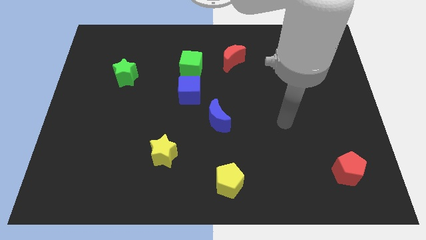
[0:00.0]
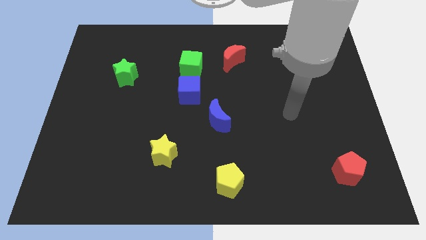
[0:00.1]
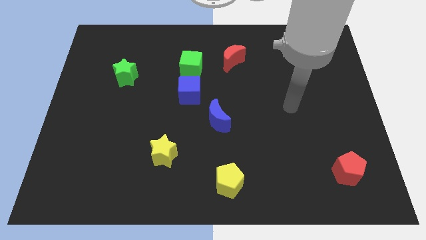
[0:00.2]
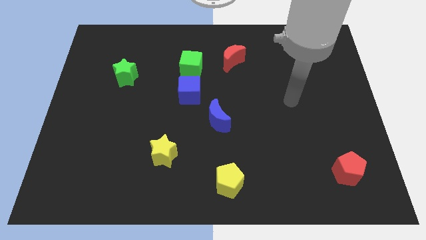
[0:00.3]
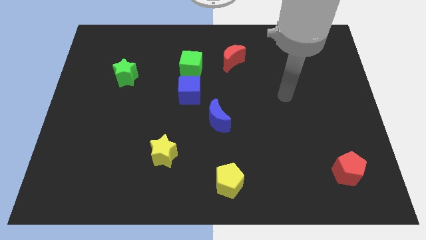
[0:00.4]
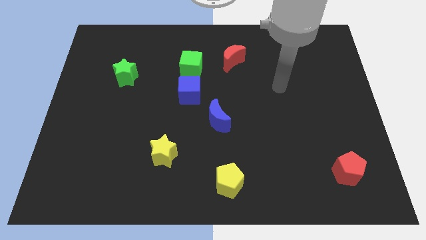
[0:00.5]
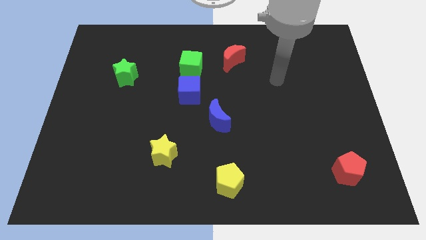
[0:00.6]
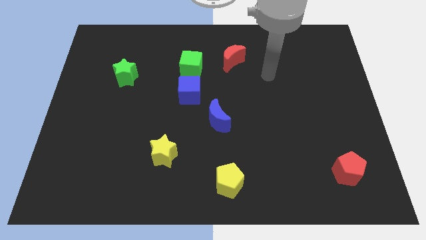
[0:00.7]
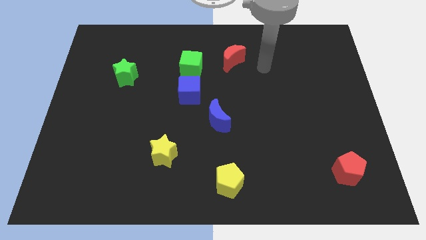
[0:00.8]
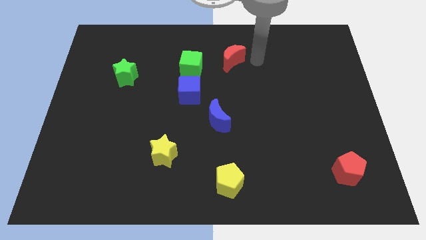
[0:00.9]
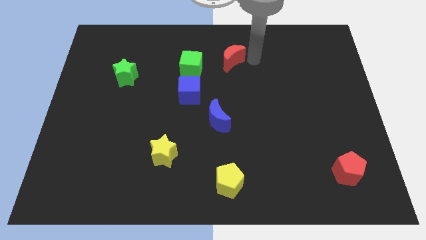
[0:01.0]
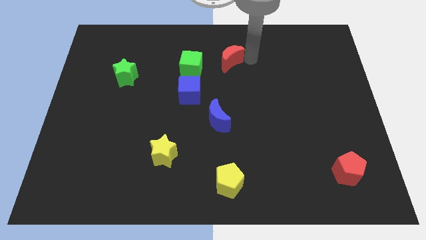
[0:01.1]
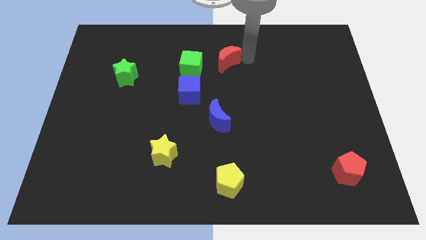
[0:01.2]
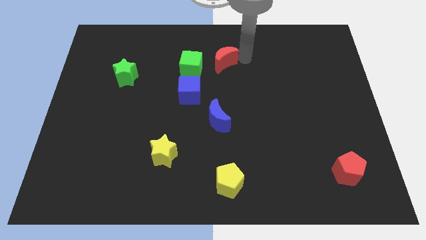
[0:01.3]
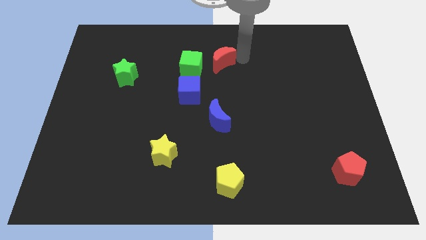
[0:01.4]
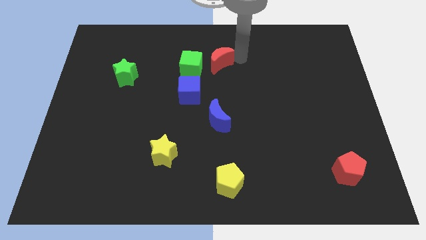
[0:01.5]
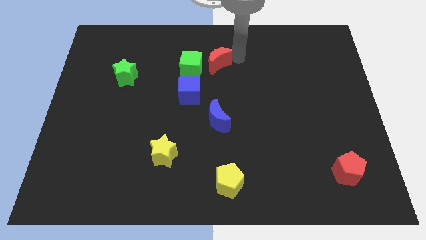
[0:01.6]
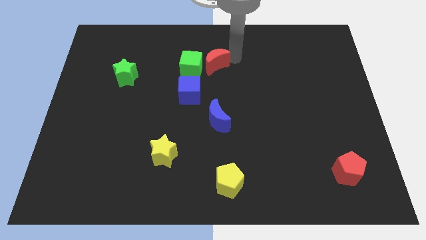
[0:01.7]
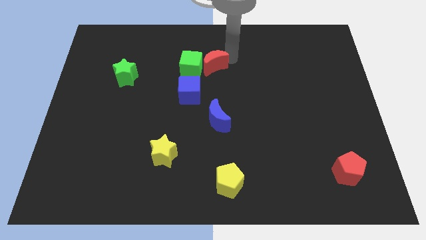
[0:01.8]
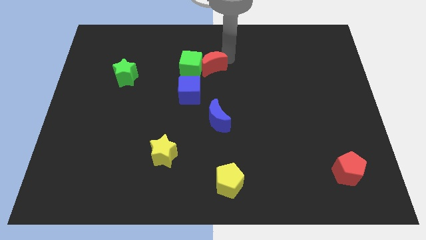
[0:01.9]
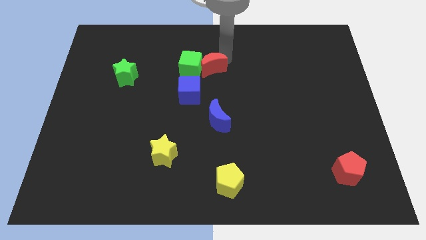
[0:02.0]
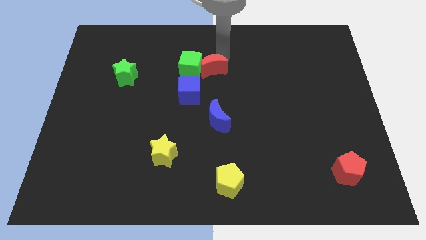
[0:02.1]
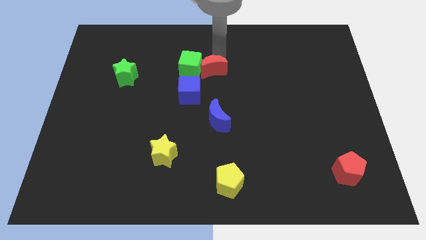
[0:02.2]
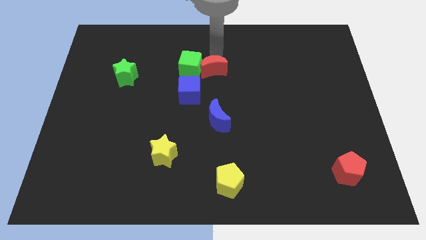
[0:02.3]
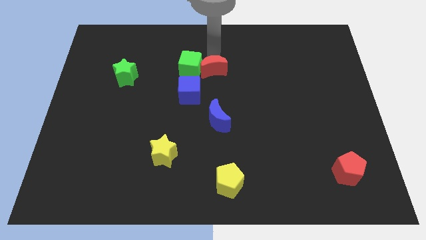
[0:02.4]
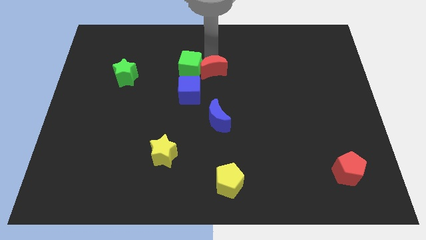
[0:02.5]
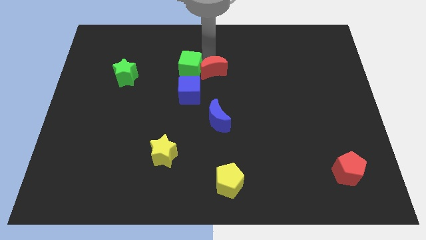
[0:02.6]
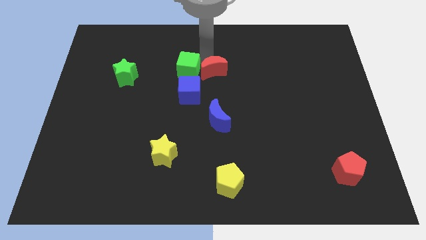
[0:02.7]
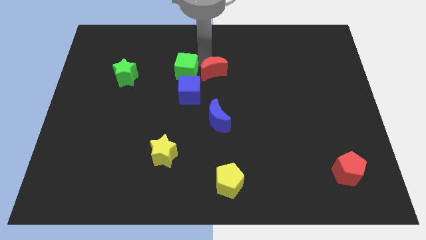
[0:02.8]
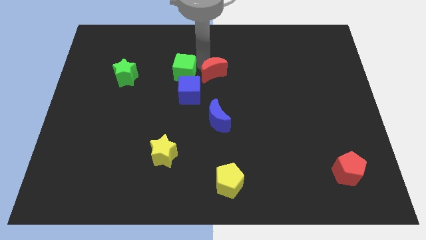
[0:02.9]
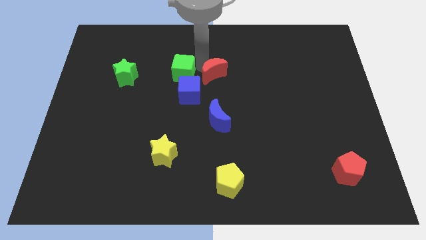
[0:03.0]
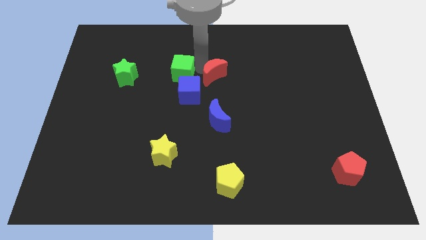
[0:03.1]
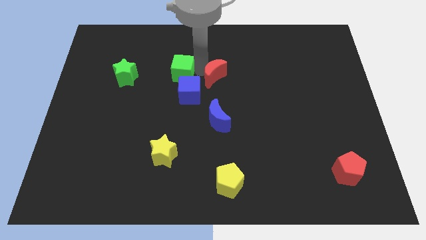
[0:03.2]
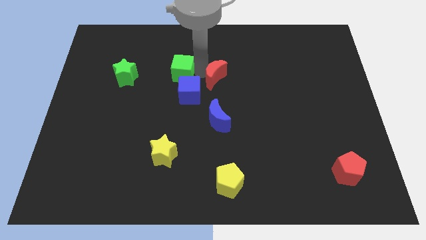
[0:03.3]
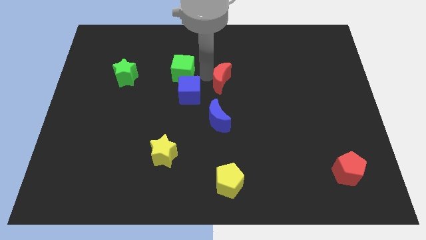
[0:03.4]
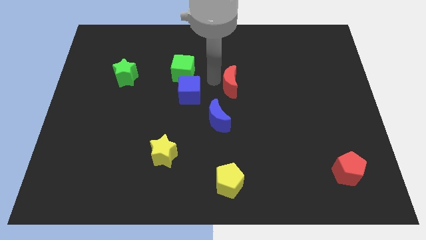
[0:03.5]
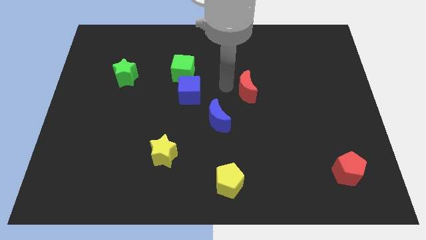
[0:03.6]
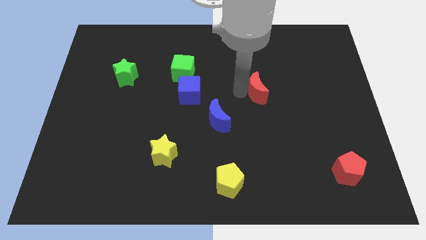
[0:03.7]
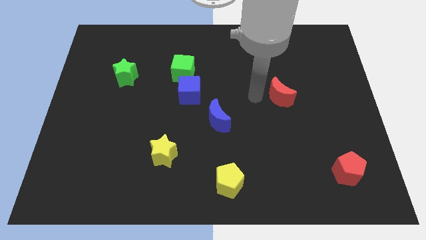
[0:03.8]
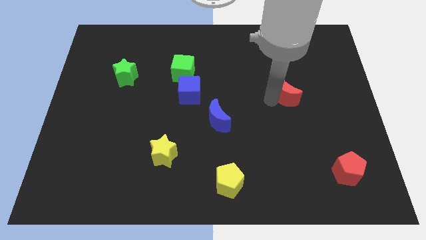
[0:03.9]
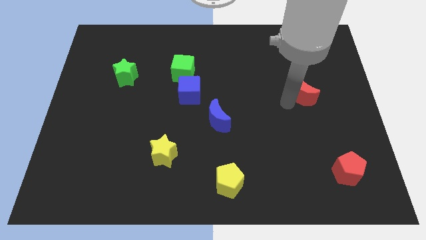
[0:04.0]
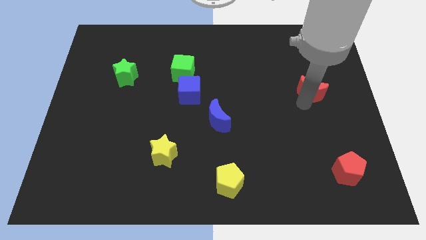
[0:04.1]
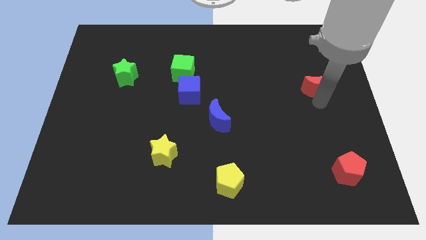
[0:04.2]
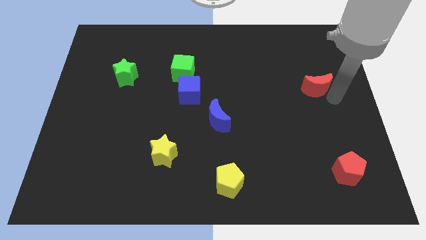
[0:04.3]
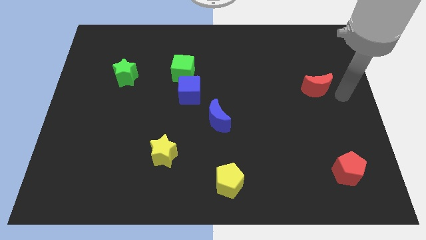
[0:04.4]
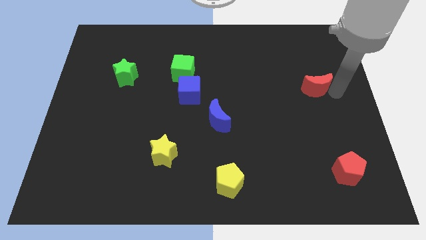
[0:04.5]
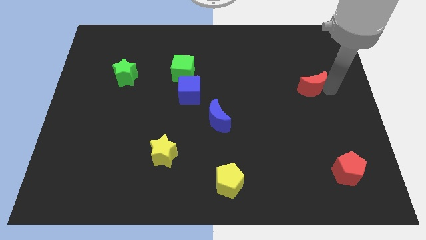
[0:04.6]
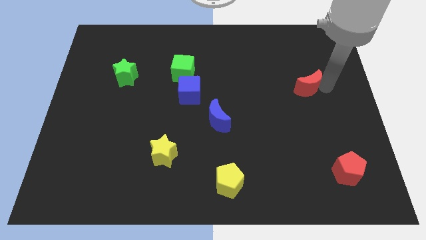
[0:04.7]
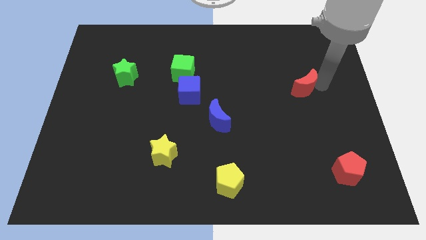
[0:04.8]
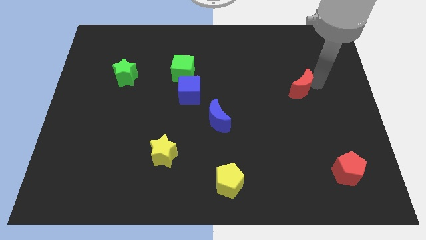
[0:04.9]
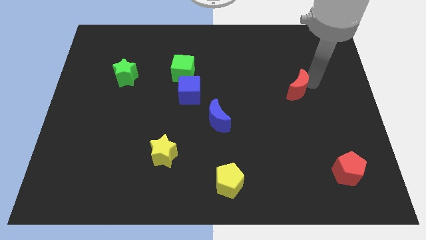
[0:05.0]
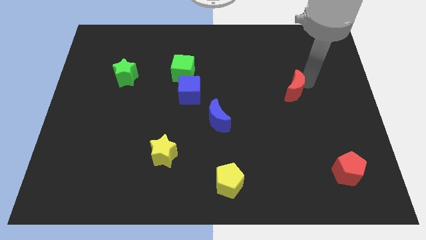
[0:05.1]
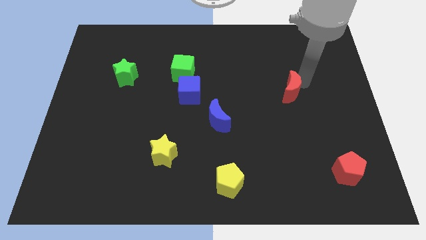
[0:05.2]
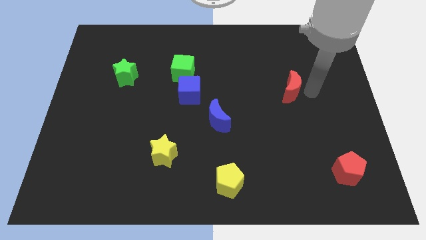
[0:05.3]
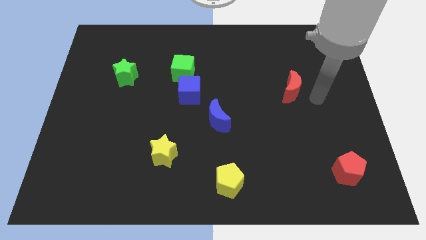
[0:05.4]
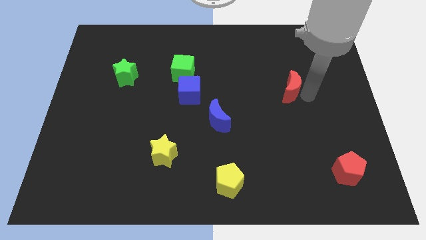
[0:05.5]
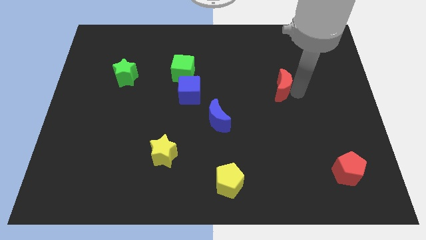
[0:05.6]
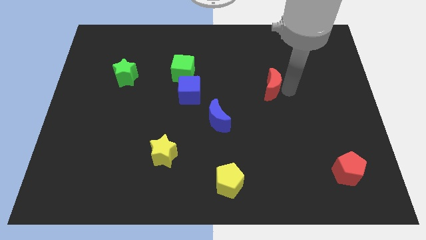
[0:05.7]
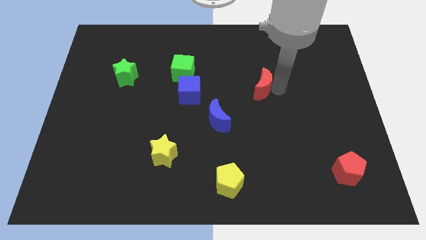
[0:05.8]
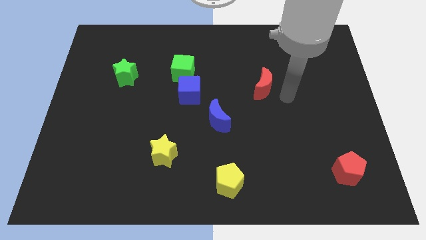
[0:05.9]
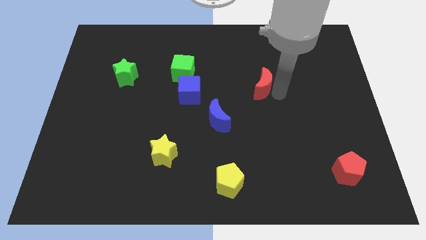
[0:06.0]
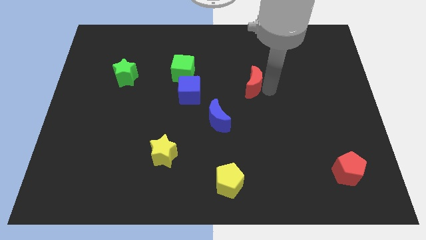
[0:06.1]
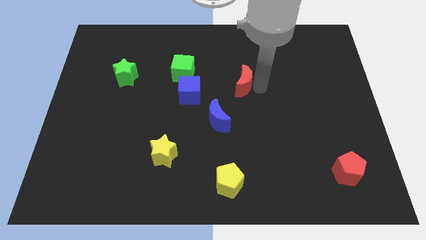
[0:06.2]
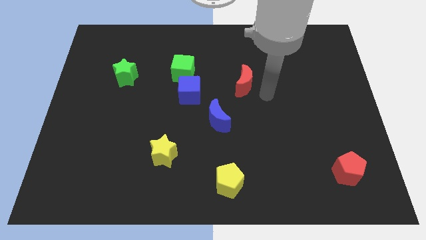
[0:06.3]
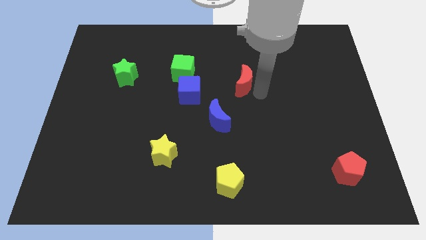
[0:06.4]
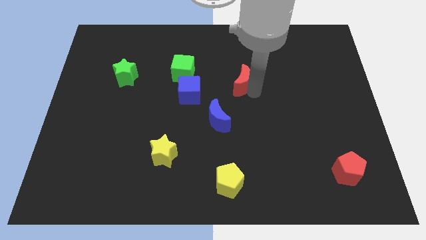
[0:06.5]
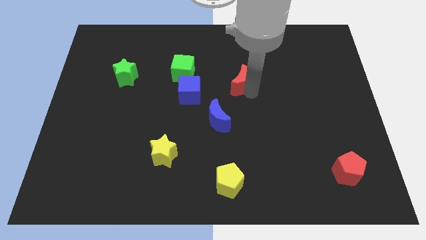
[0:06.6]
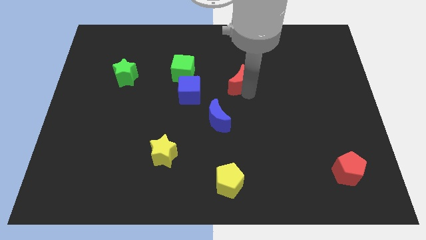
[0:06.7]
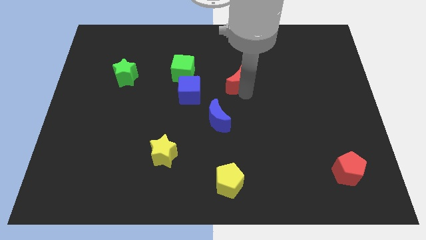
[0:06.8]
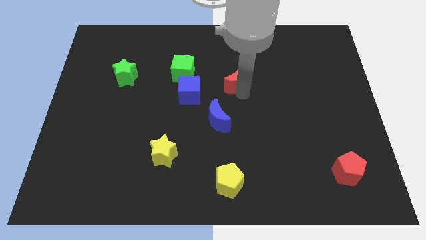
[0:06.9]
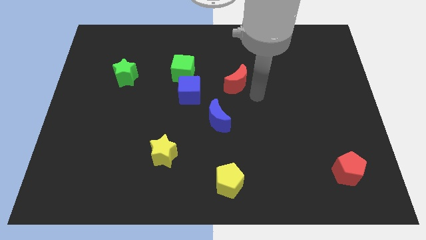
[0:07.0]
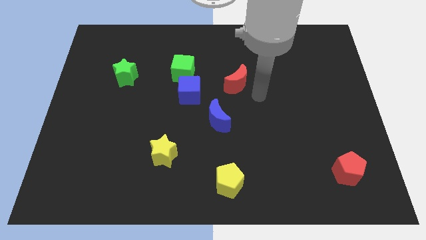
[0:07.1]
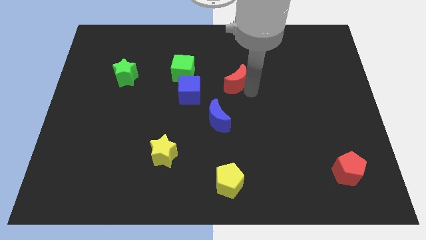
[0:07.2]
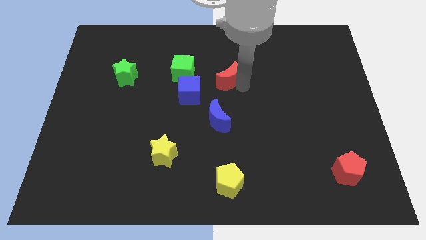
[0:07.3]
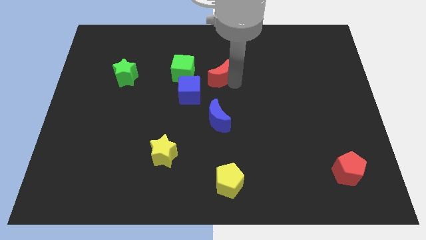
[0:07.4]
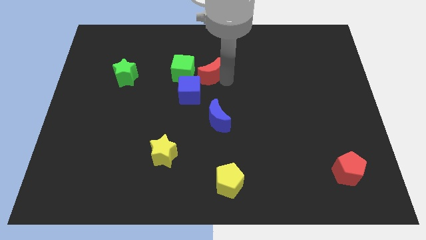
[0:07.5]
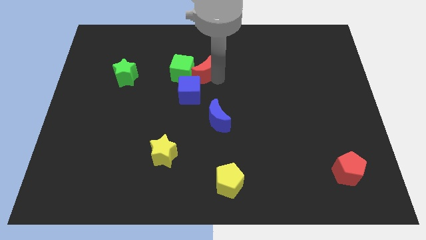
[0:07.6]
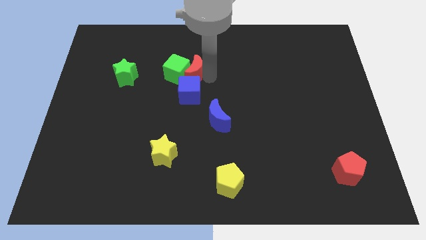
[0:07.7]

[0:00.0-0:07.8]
slightly move the red moon left
